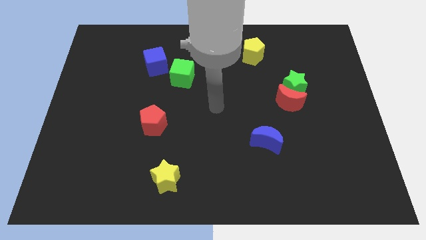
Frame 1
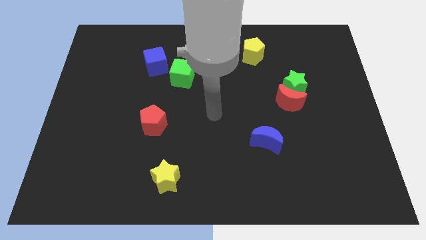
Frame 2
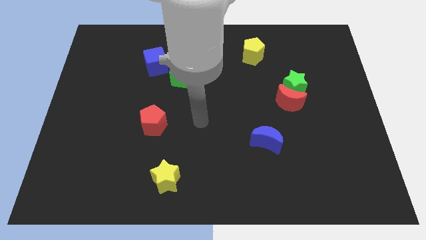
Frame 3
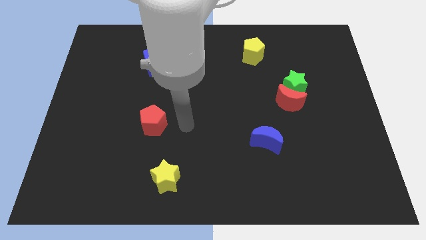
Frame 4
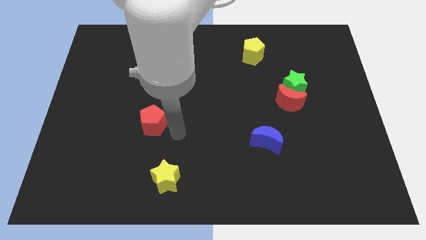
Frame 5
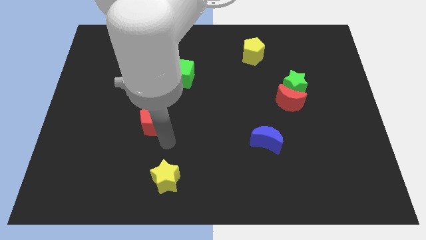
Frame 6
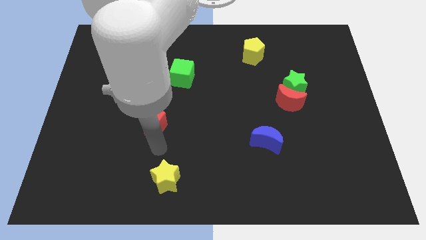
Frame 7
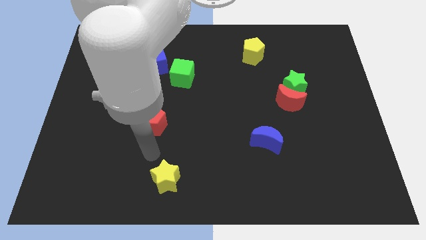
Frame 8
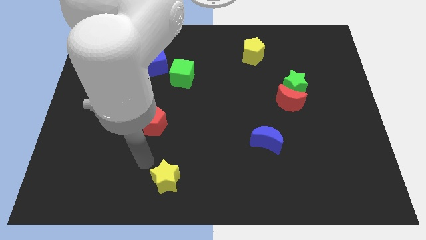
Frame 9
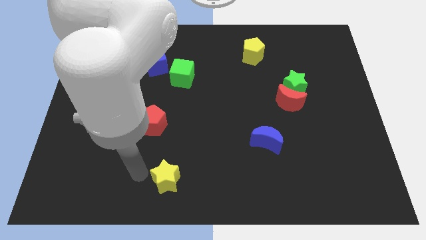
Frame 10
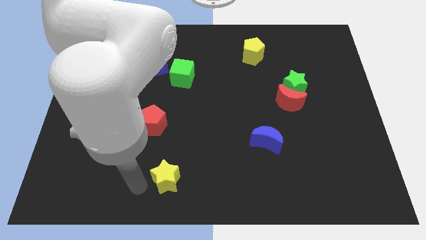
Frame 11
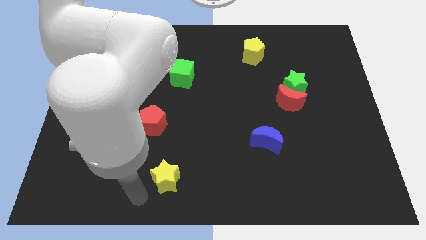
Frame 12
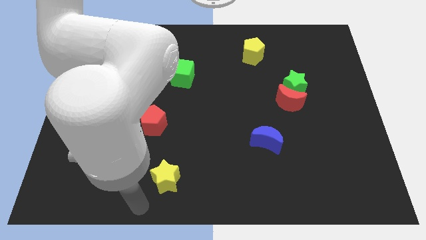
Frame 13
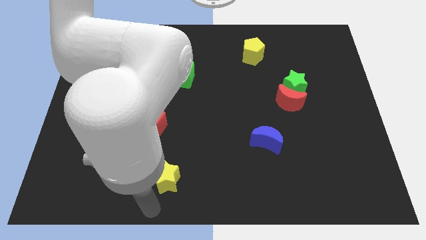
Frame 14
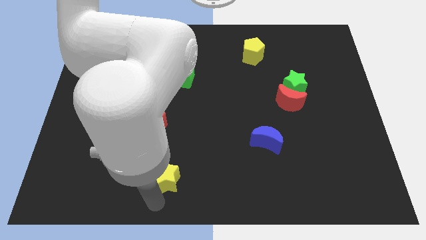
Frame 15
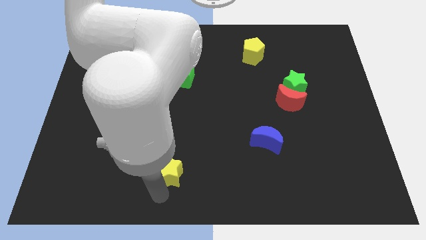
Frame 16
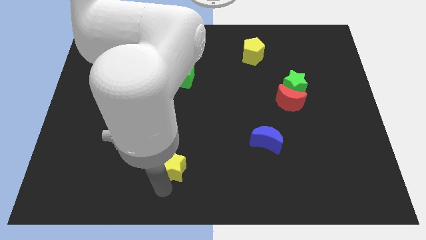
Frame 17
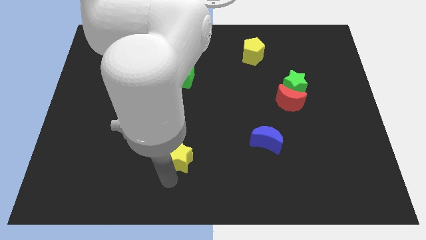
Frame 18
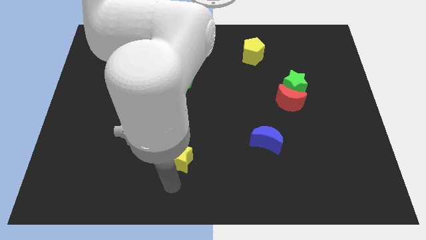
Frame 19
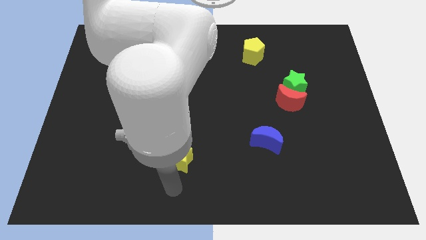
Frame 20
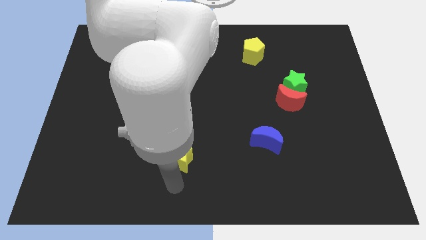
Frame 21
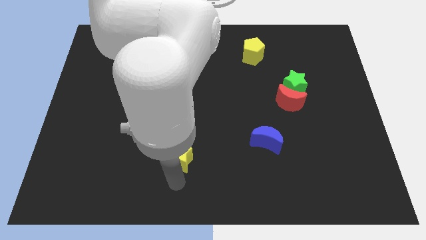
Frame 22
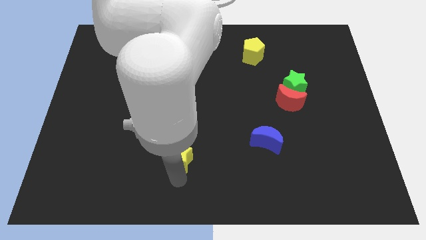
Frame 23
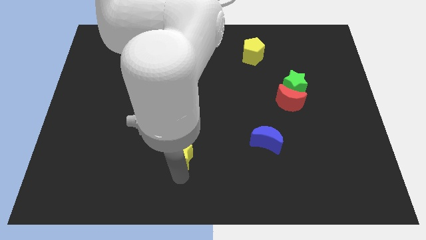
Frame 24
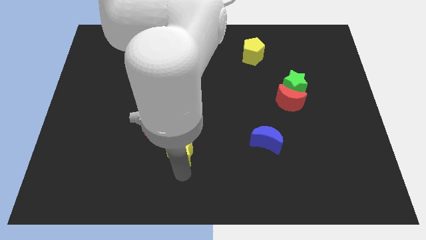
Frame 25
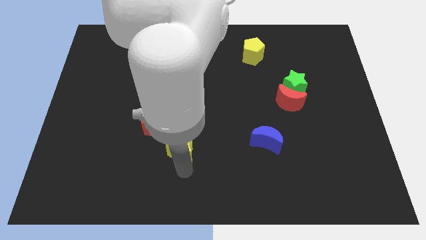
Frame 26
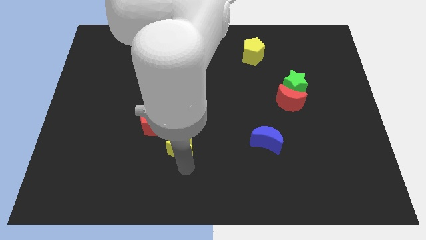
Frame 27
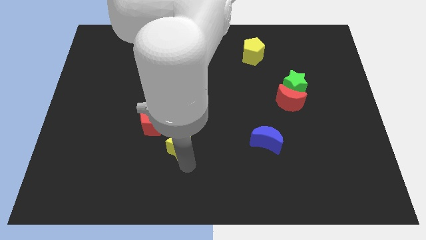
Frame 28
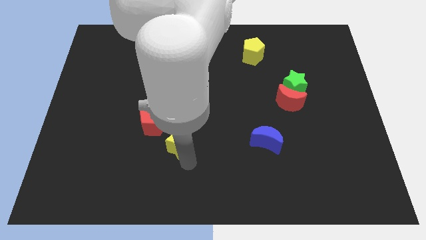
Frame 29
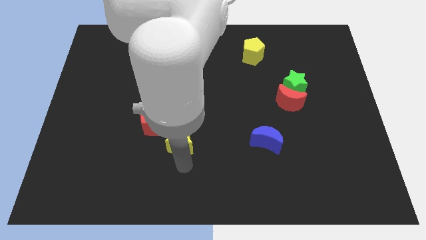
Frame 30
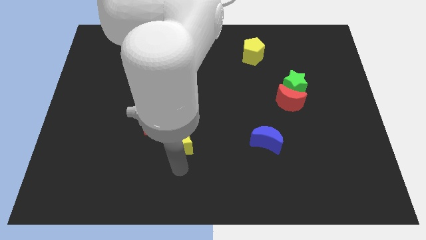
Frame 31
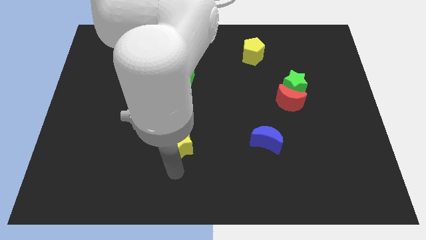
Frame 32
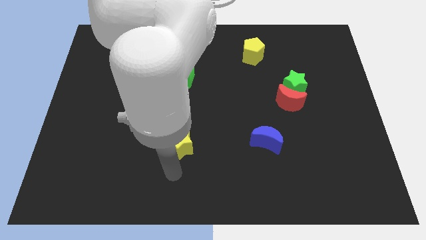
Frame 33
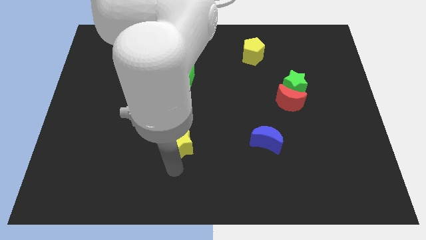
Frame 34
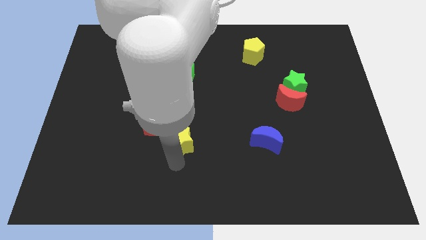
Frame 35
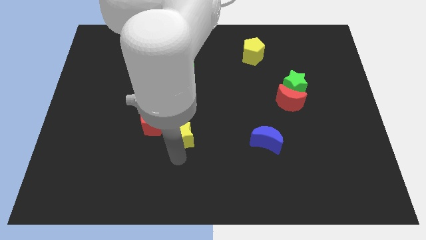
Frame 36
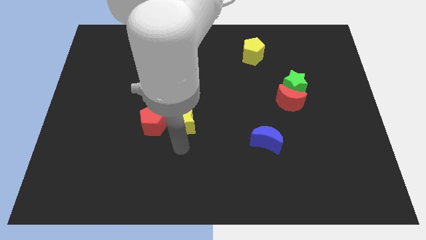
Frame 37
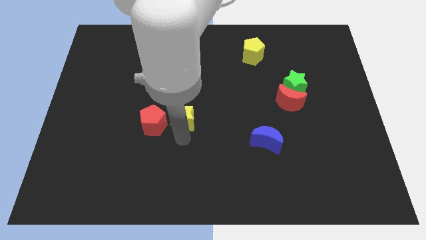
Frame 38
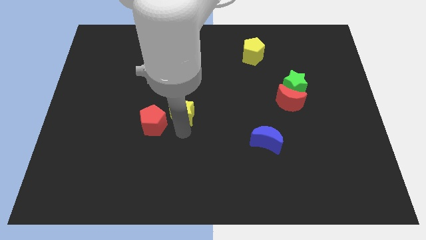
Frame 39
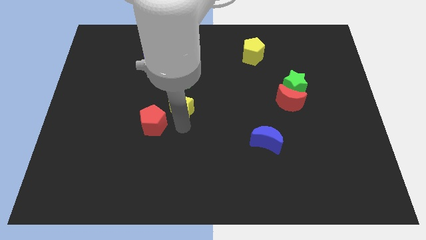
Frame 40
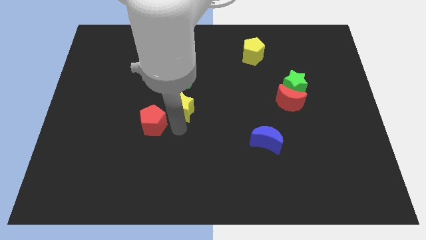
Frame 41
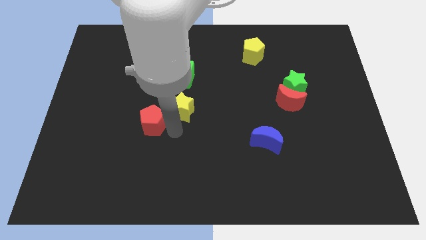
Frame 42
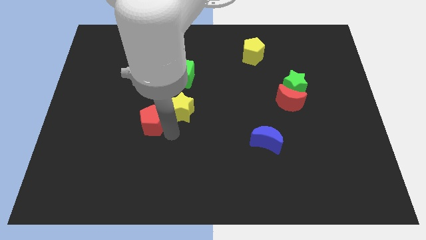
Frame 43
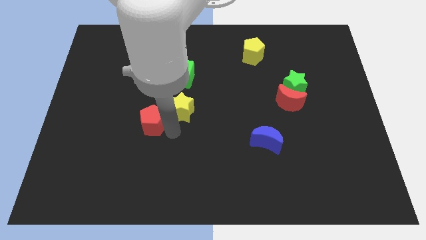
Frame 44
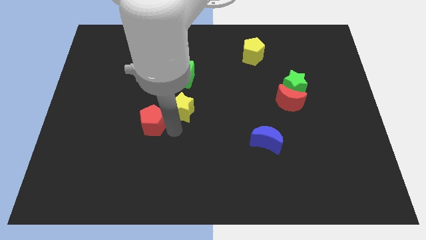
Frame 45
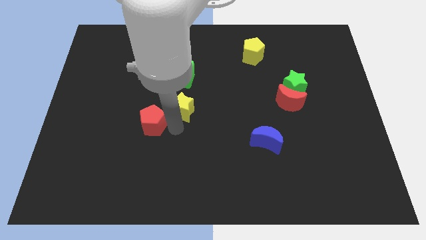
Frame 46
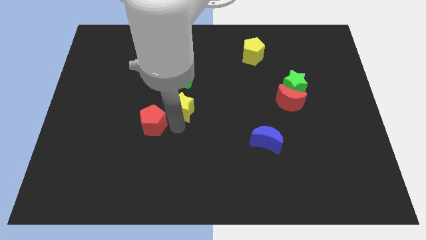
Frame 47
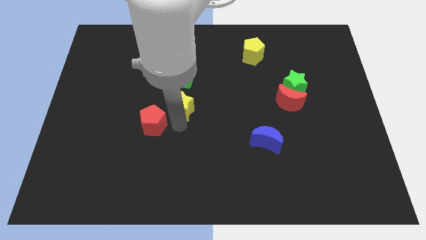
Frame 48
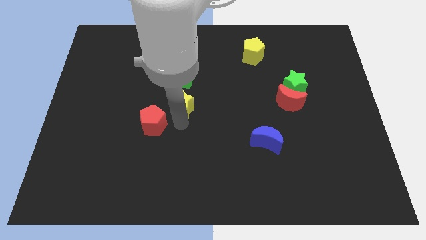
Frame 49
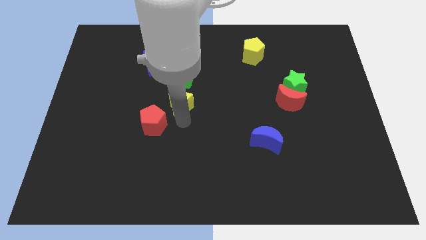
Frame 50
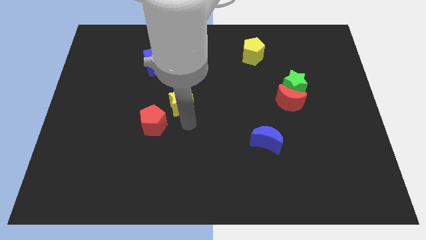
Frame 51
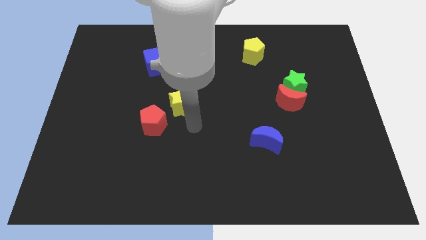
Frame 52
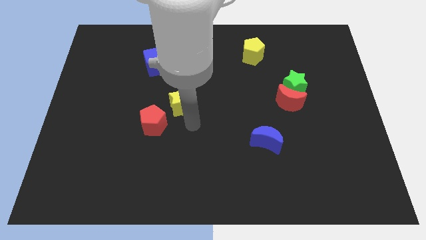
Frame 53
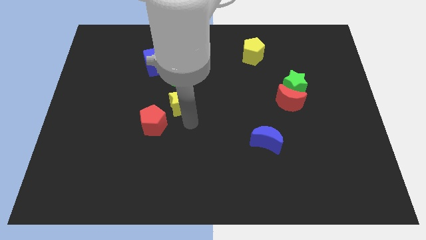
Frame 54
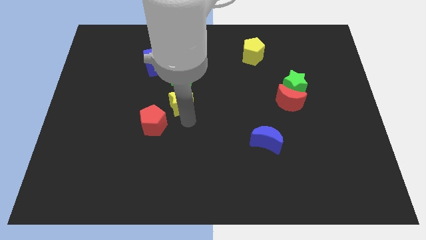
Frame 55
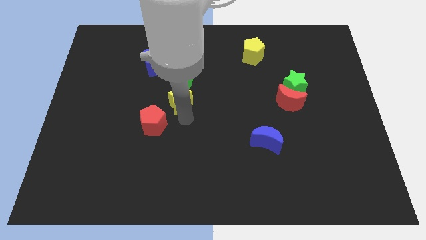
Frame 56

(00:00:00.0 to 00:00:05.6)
move the yellow star upwards

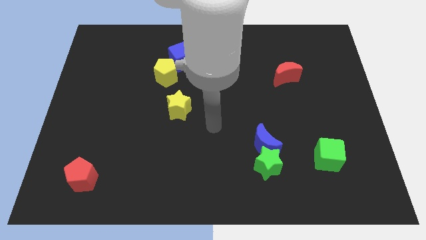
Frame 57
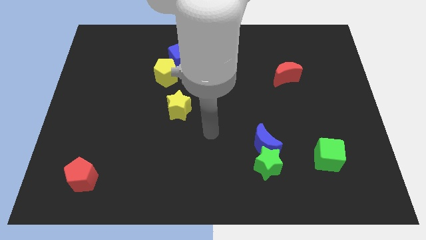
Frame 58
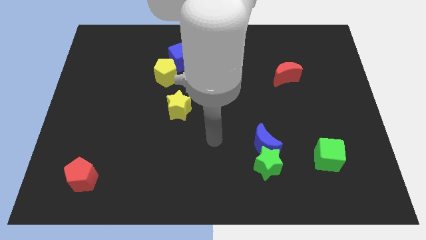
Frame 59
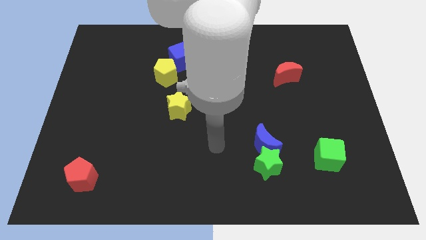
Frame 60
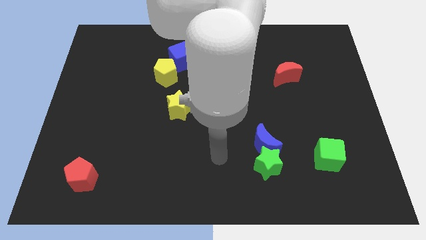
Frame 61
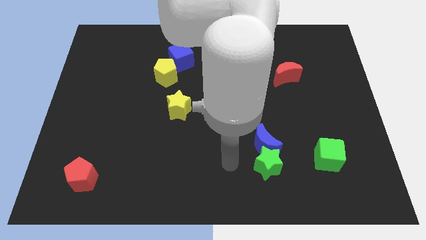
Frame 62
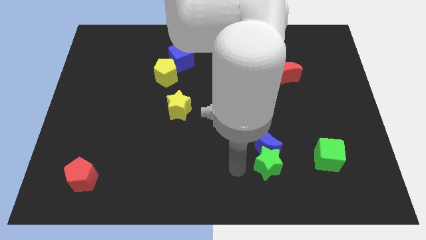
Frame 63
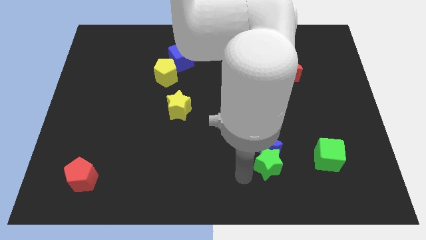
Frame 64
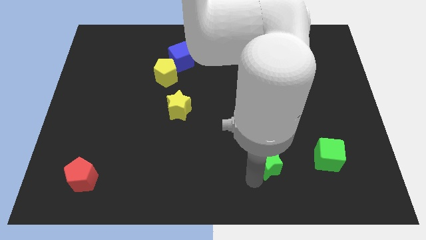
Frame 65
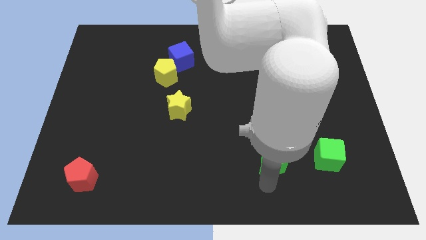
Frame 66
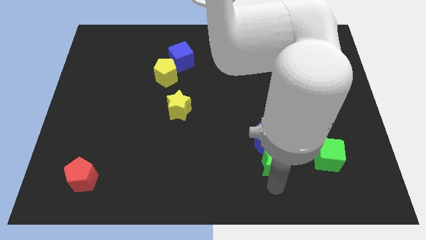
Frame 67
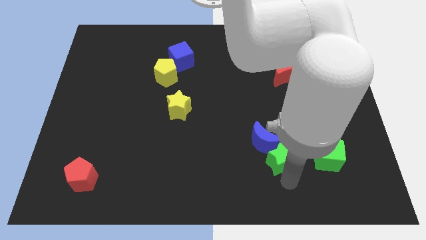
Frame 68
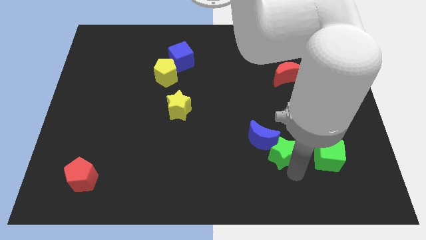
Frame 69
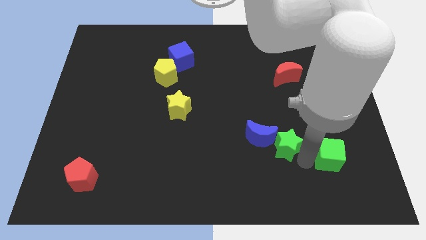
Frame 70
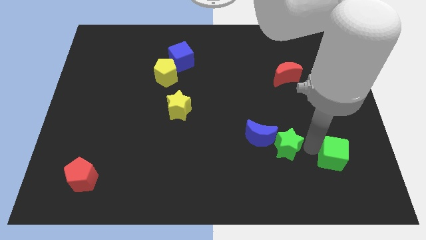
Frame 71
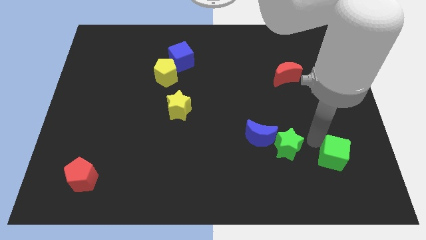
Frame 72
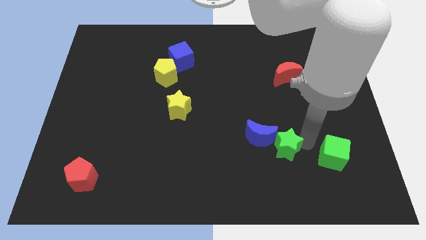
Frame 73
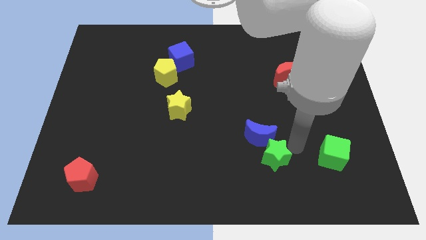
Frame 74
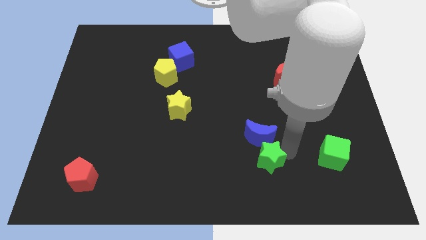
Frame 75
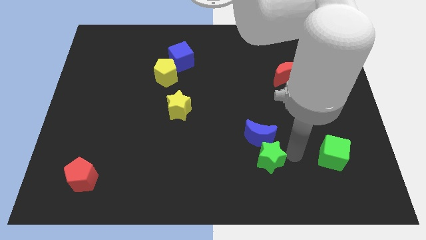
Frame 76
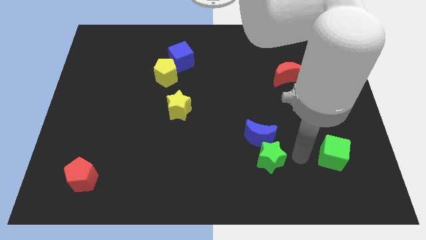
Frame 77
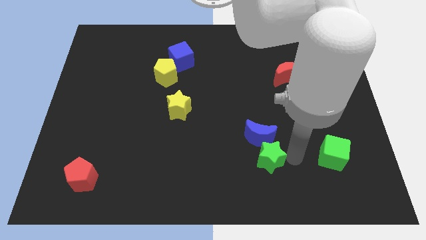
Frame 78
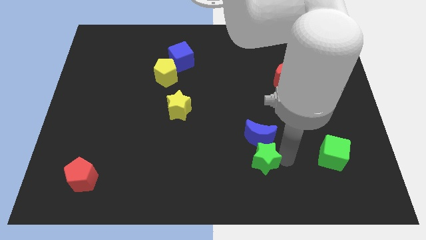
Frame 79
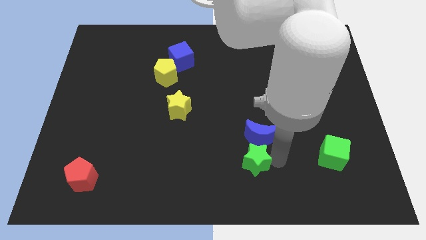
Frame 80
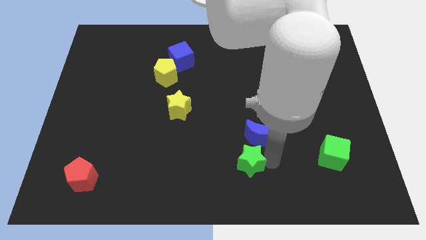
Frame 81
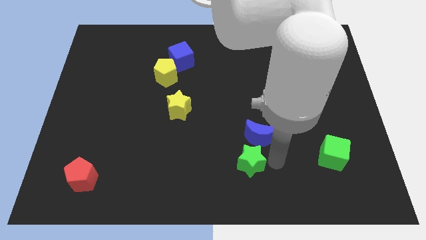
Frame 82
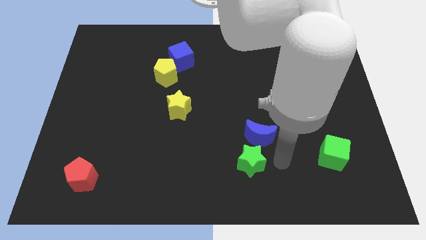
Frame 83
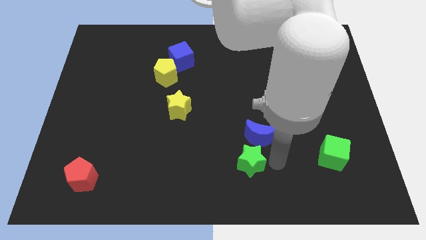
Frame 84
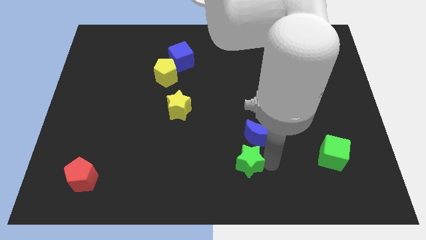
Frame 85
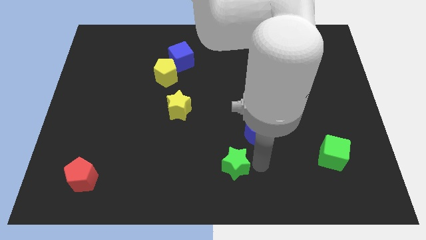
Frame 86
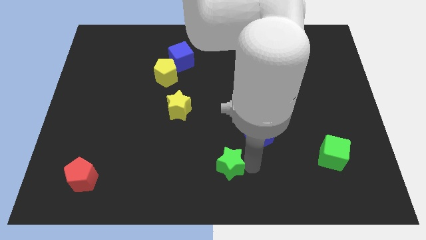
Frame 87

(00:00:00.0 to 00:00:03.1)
slightly move the green star left
